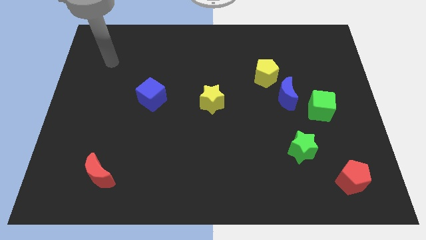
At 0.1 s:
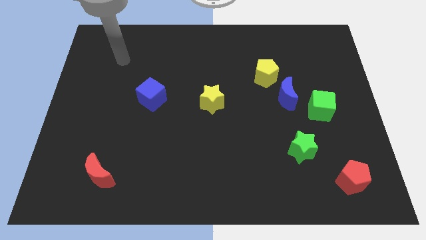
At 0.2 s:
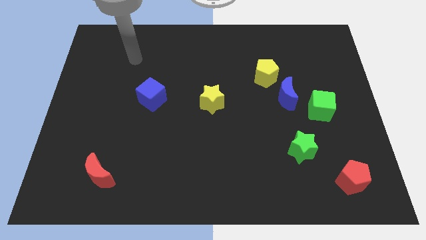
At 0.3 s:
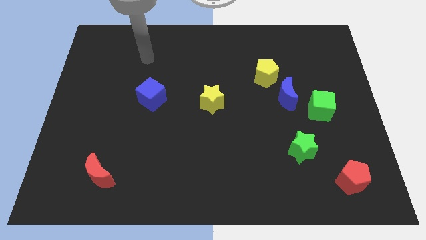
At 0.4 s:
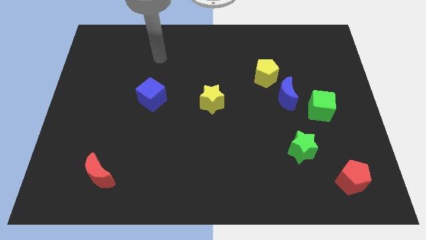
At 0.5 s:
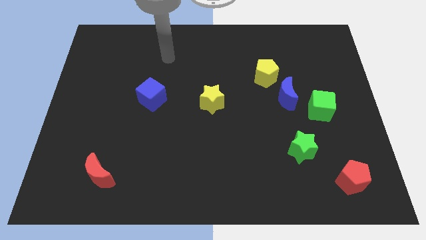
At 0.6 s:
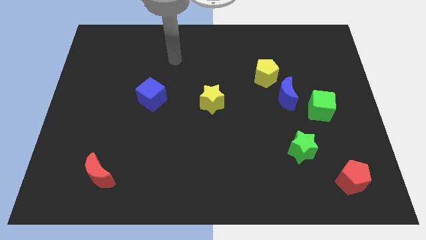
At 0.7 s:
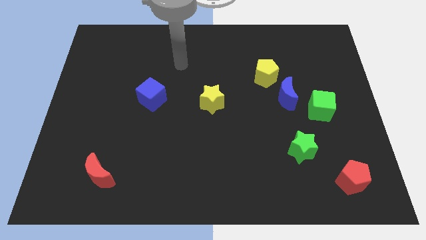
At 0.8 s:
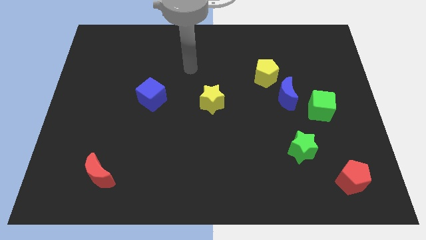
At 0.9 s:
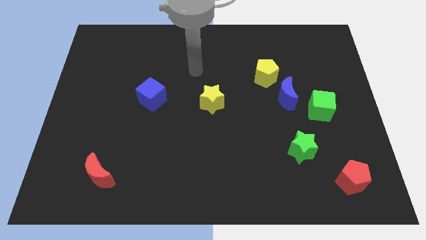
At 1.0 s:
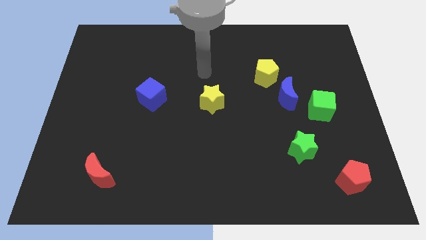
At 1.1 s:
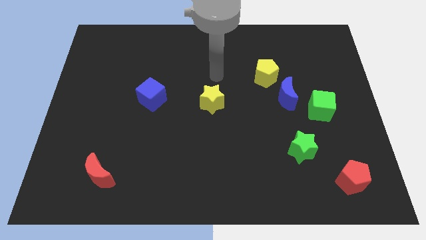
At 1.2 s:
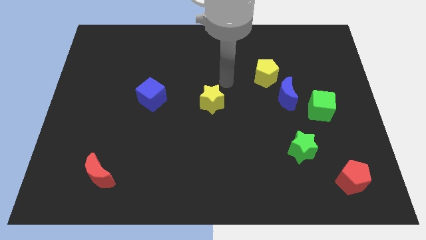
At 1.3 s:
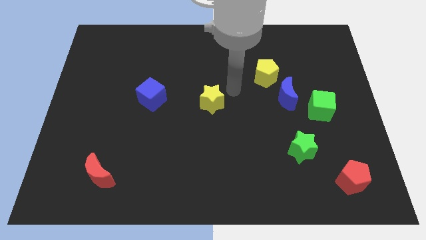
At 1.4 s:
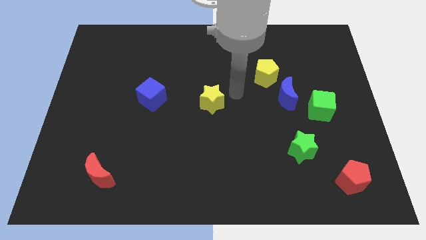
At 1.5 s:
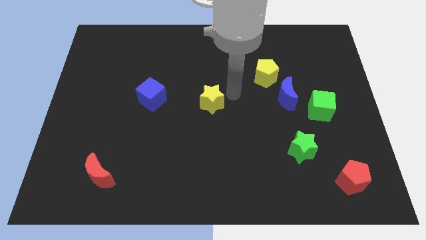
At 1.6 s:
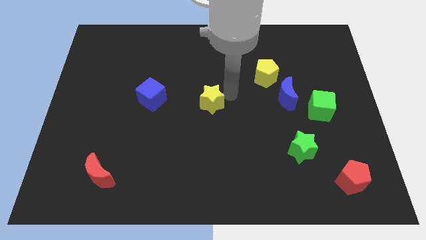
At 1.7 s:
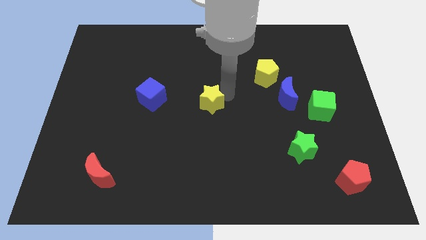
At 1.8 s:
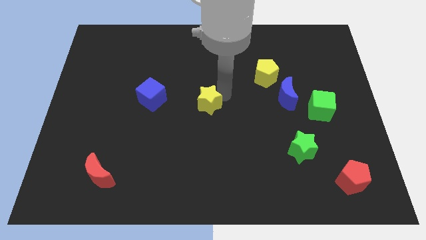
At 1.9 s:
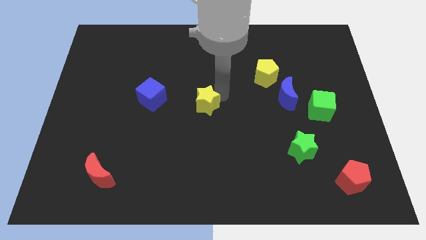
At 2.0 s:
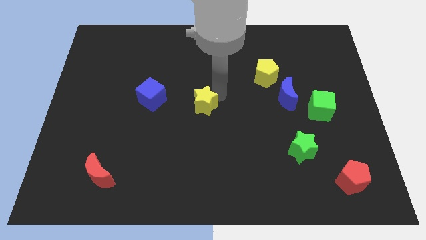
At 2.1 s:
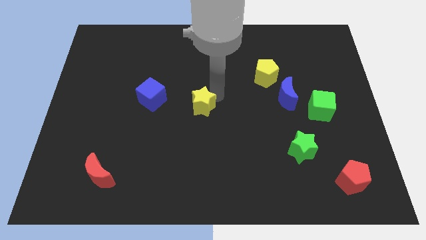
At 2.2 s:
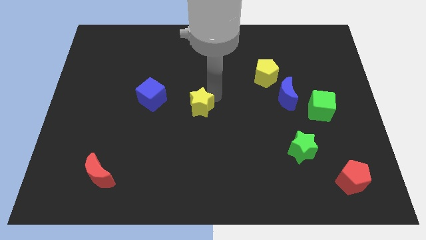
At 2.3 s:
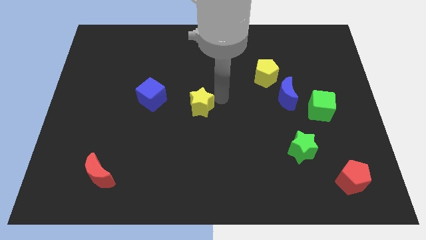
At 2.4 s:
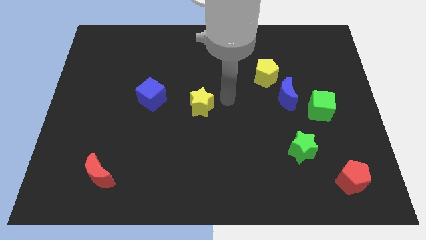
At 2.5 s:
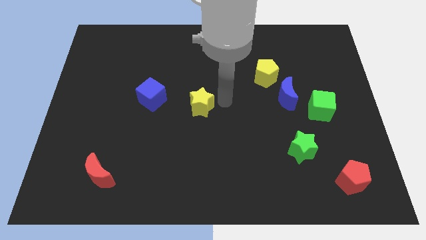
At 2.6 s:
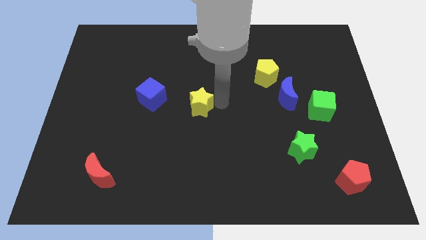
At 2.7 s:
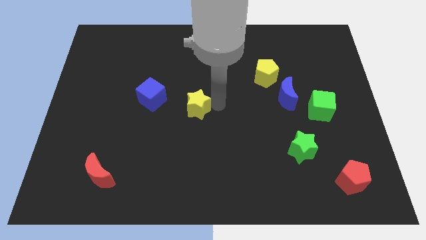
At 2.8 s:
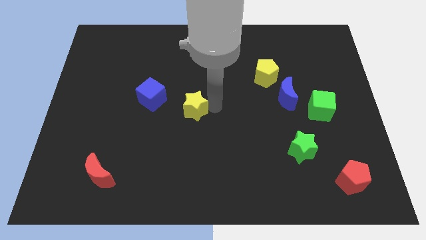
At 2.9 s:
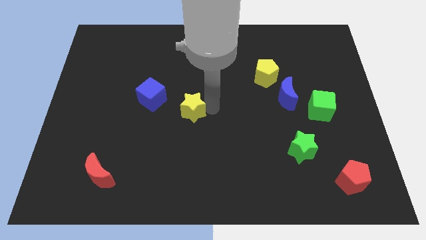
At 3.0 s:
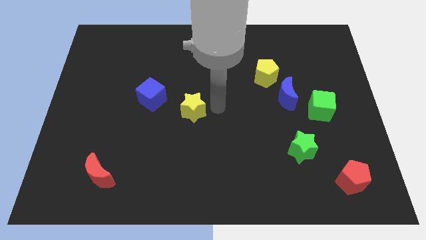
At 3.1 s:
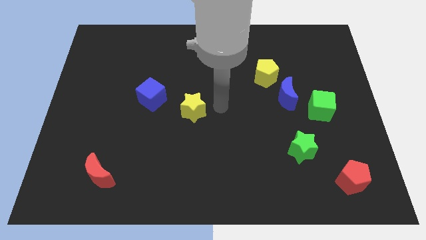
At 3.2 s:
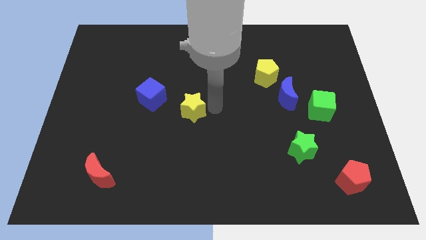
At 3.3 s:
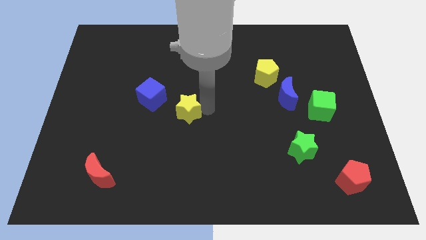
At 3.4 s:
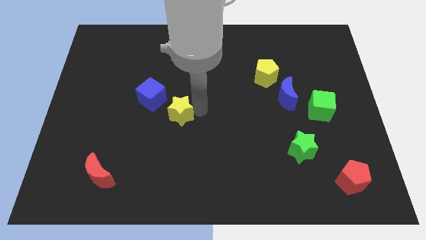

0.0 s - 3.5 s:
push the yellow star left a bit

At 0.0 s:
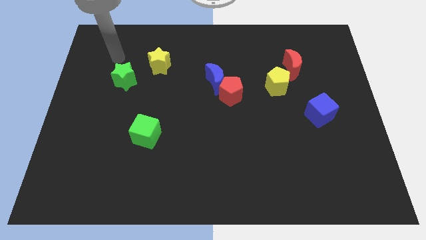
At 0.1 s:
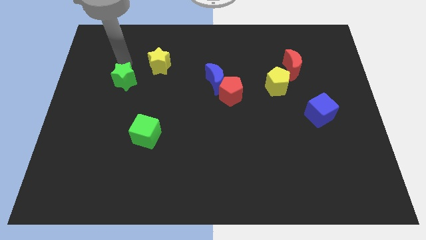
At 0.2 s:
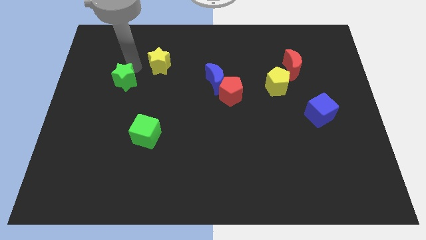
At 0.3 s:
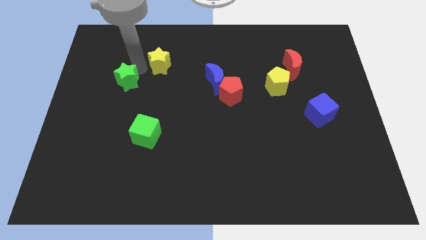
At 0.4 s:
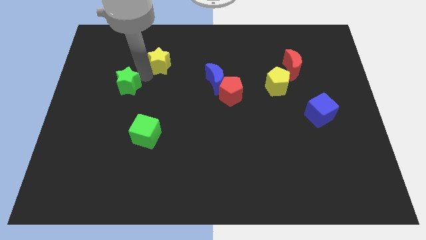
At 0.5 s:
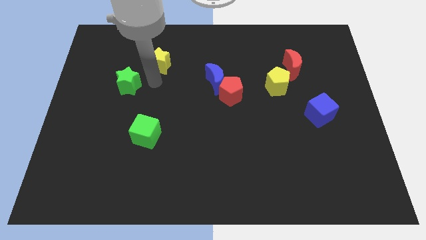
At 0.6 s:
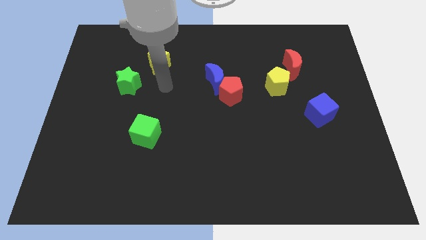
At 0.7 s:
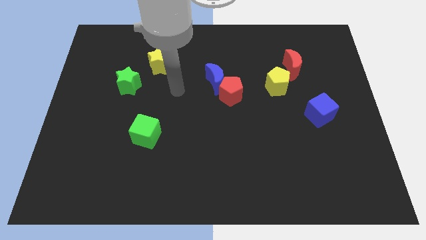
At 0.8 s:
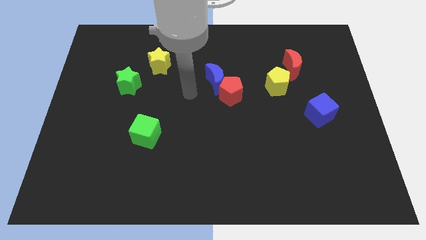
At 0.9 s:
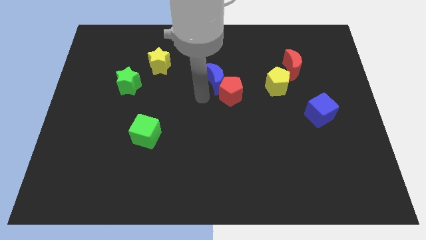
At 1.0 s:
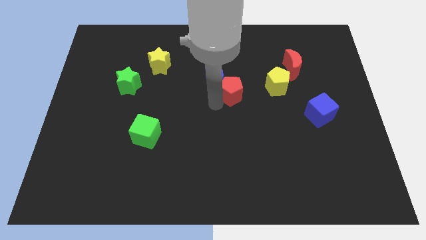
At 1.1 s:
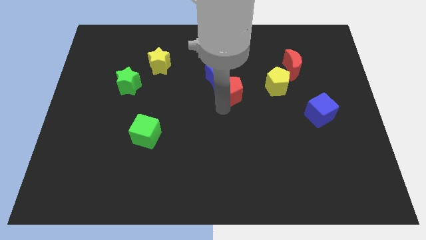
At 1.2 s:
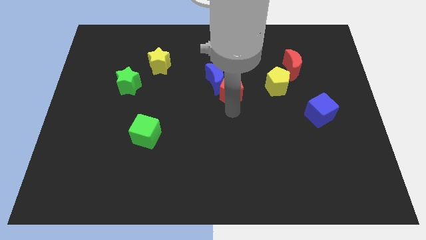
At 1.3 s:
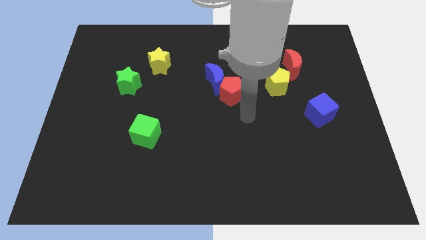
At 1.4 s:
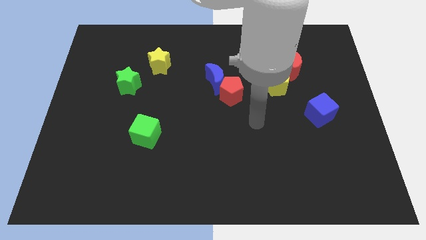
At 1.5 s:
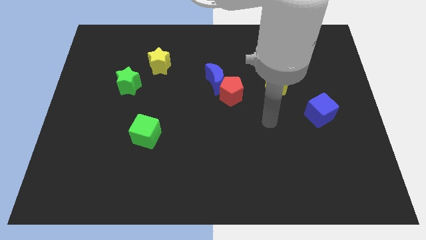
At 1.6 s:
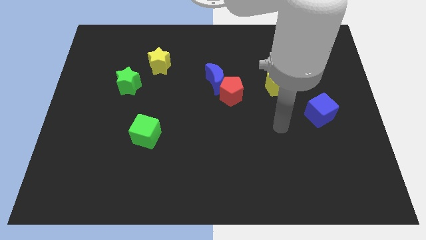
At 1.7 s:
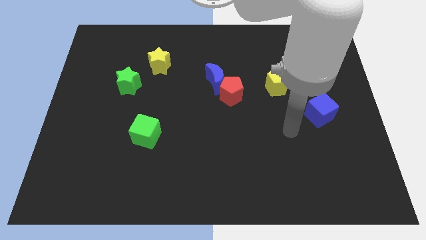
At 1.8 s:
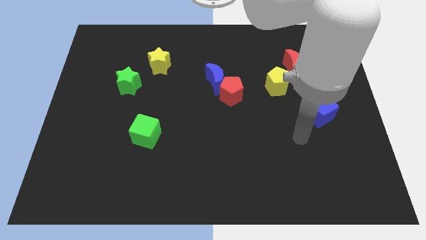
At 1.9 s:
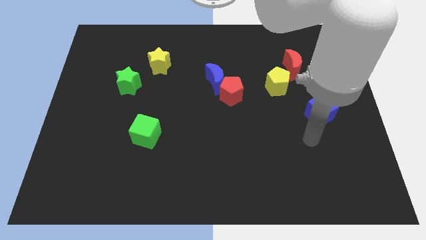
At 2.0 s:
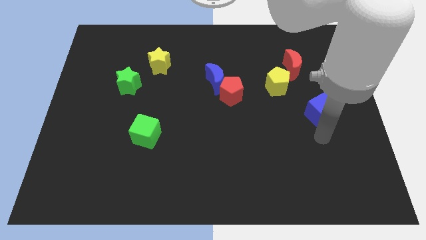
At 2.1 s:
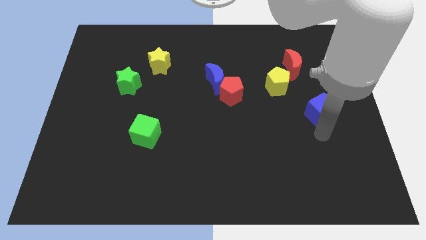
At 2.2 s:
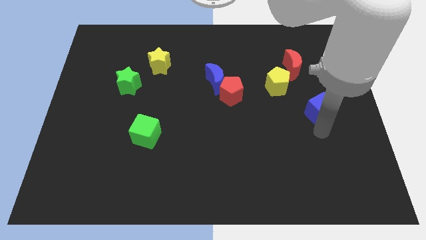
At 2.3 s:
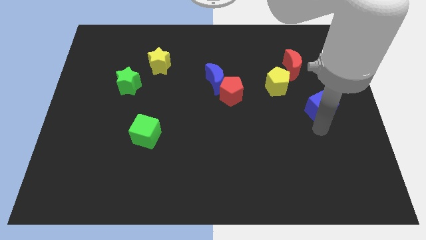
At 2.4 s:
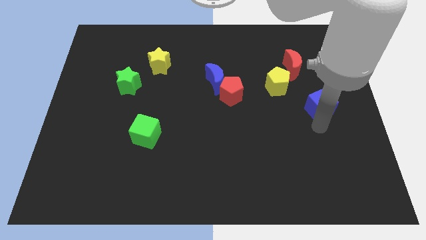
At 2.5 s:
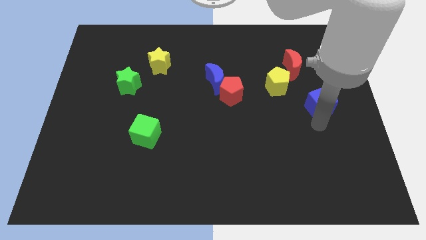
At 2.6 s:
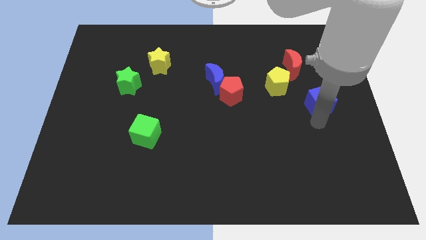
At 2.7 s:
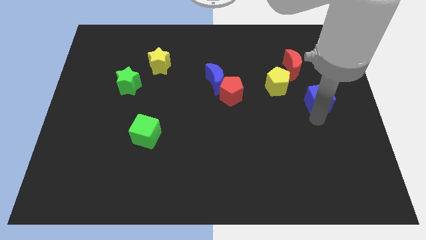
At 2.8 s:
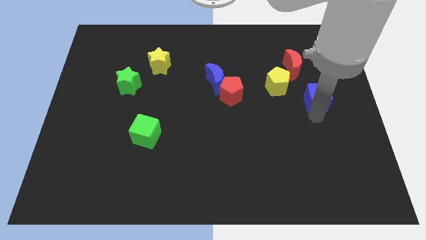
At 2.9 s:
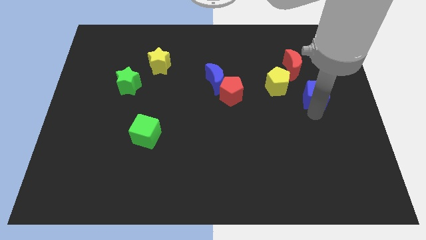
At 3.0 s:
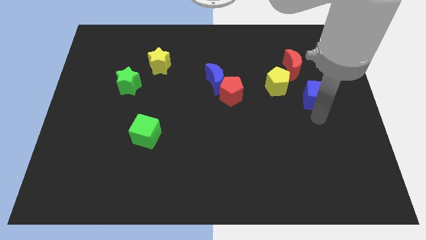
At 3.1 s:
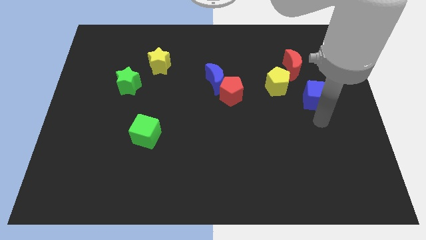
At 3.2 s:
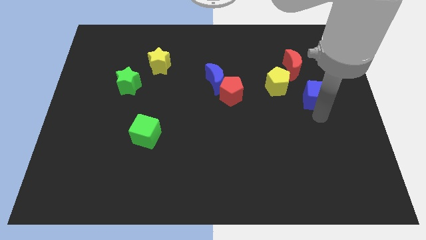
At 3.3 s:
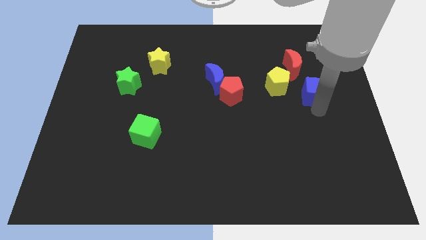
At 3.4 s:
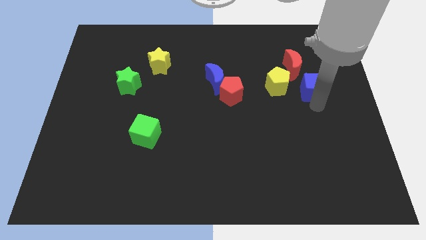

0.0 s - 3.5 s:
slightly move the blue cube upwards

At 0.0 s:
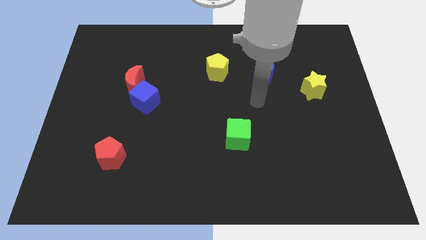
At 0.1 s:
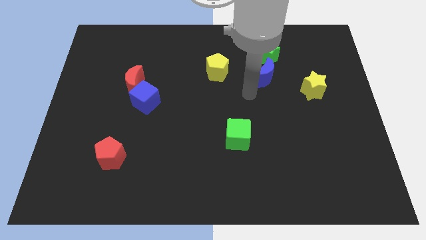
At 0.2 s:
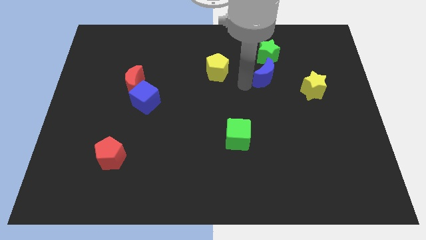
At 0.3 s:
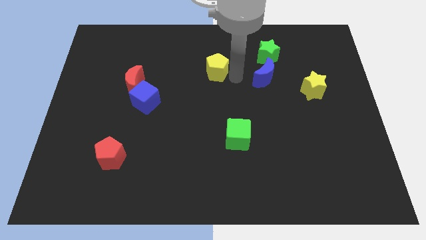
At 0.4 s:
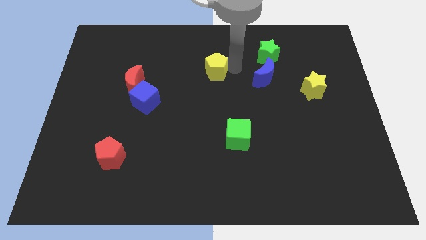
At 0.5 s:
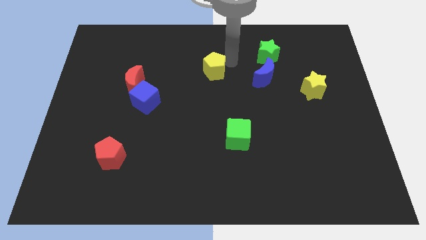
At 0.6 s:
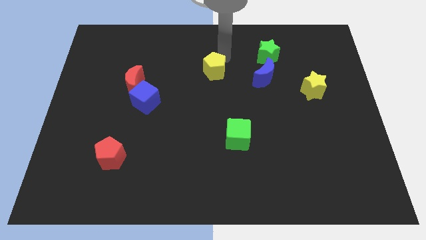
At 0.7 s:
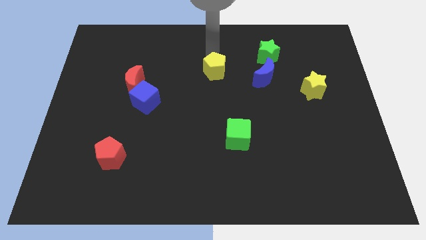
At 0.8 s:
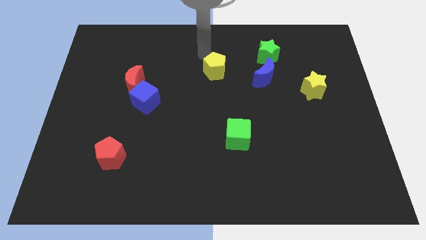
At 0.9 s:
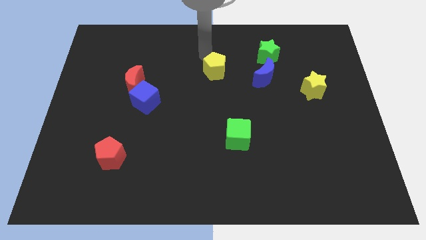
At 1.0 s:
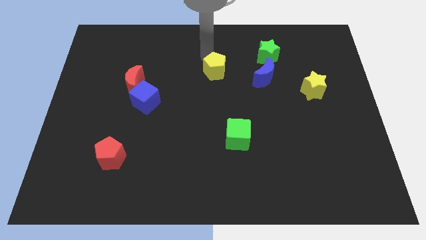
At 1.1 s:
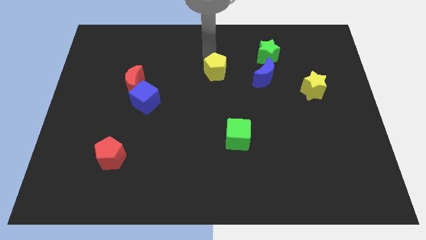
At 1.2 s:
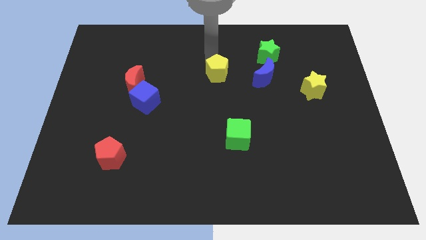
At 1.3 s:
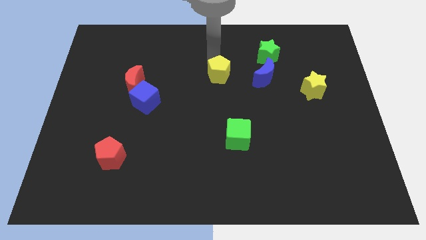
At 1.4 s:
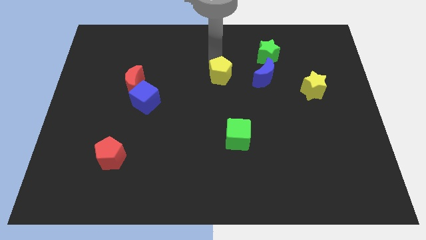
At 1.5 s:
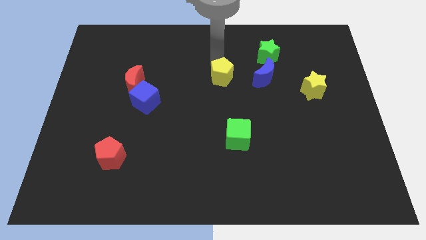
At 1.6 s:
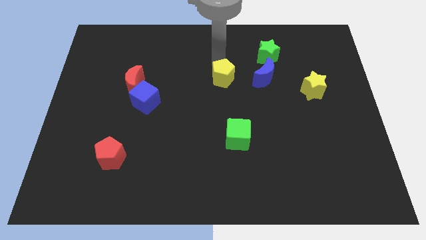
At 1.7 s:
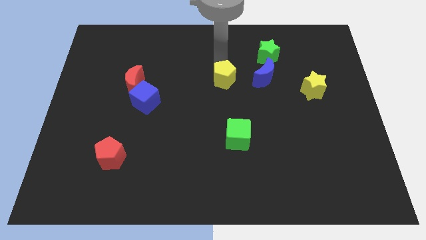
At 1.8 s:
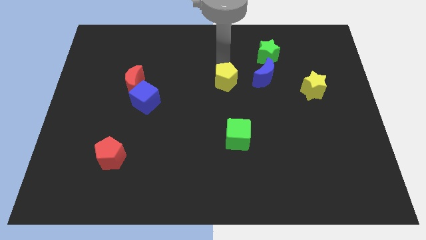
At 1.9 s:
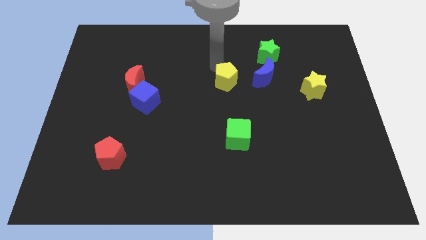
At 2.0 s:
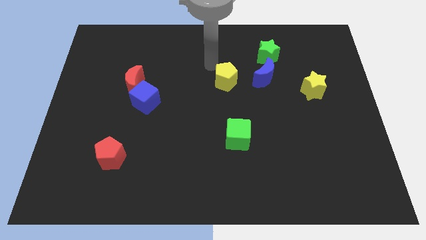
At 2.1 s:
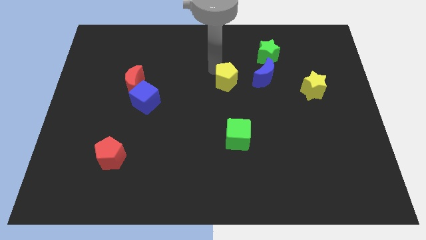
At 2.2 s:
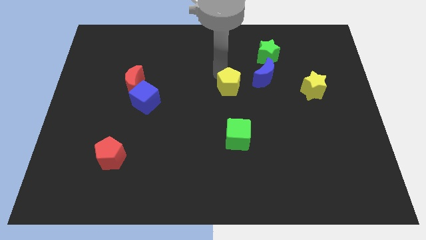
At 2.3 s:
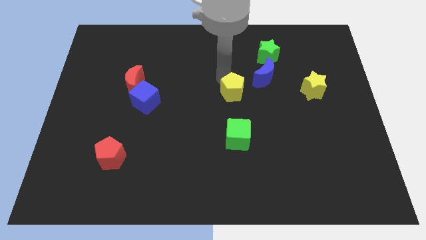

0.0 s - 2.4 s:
push the yellow pentagon downwards and right diagonally a little bit
